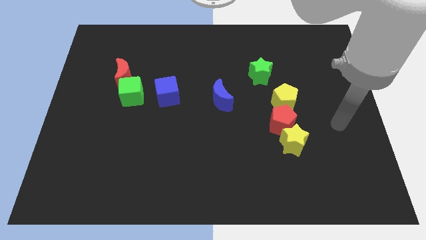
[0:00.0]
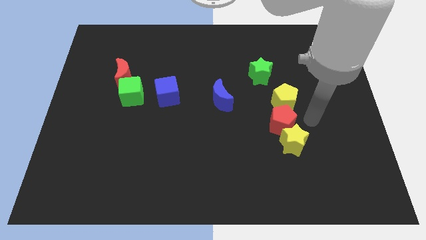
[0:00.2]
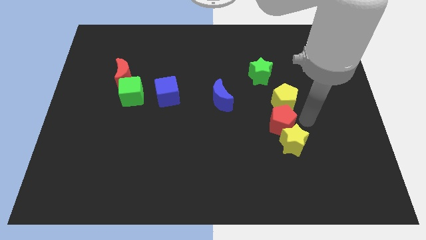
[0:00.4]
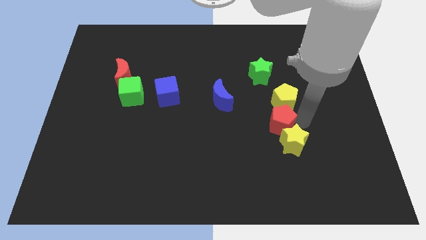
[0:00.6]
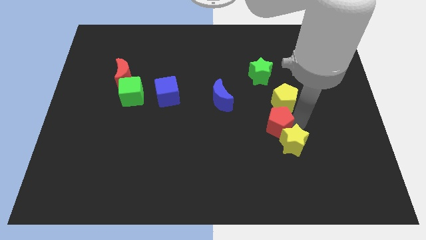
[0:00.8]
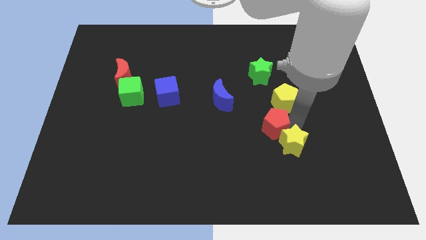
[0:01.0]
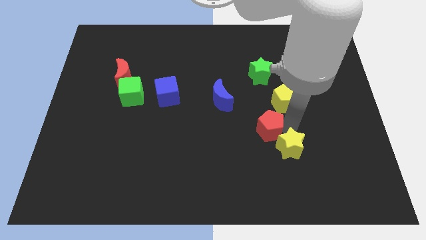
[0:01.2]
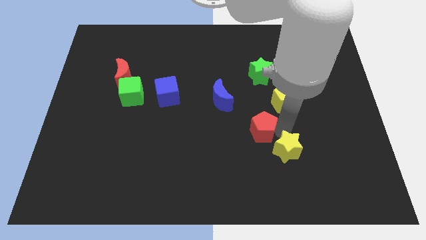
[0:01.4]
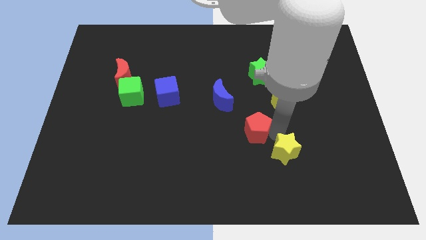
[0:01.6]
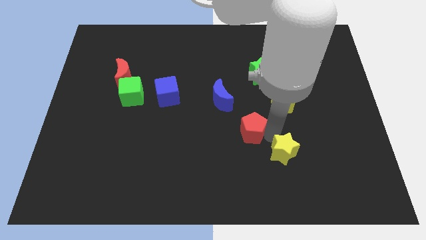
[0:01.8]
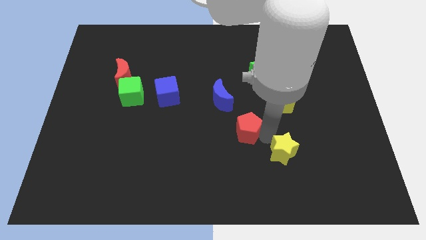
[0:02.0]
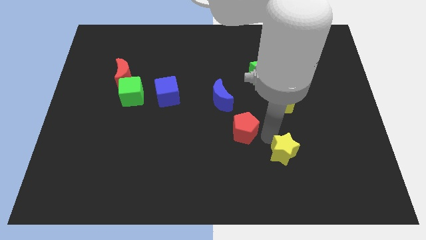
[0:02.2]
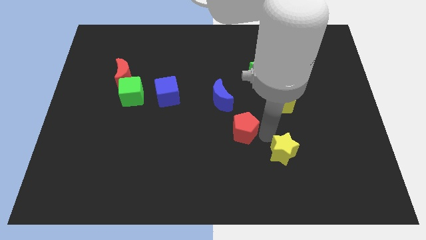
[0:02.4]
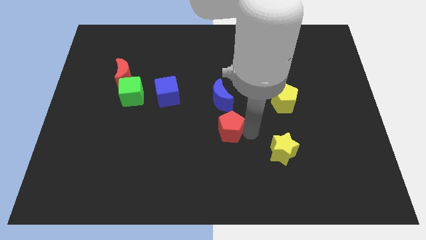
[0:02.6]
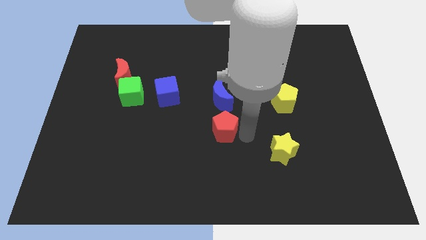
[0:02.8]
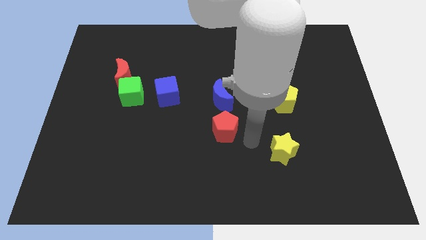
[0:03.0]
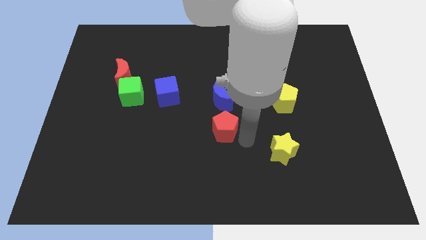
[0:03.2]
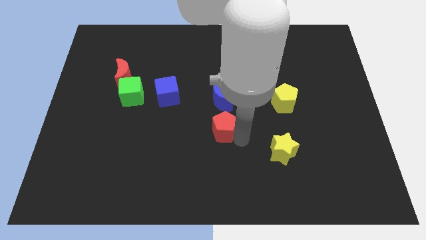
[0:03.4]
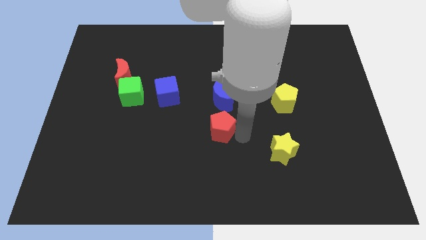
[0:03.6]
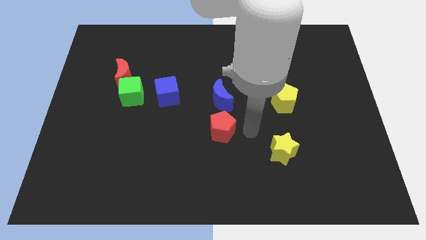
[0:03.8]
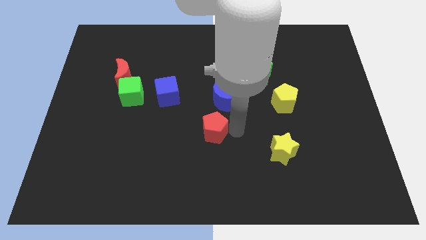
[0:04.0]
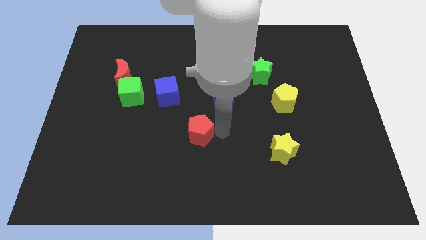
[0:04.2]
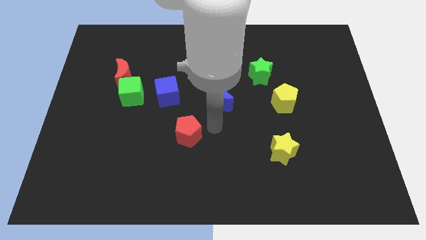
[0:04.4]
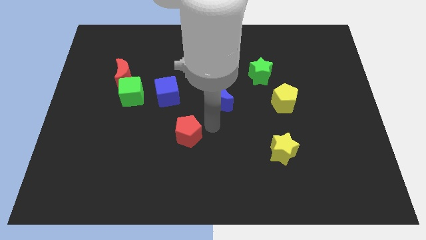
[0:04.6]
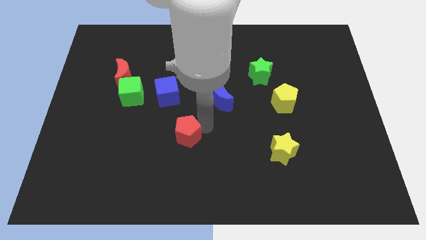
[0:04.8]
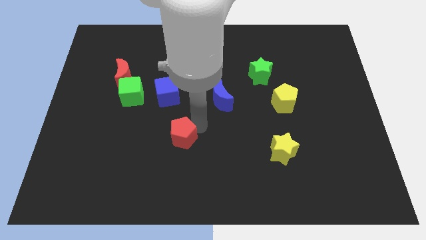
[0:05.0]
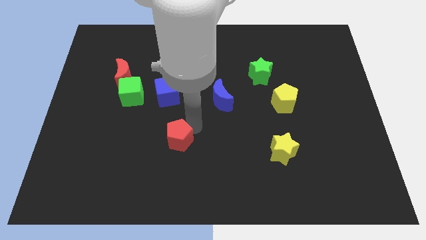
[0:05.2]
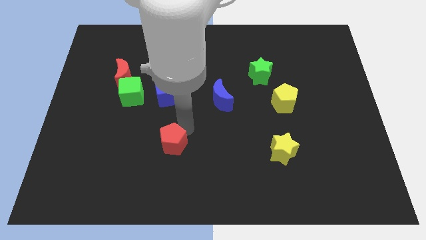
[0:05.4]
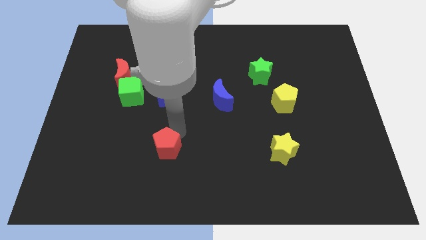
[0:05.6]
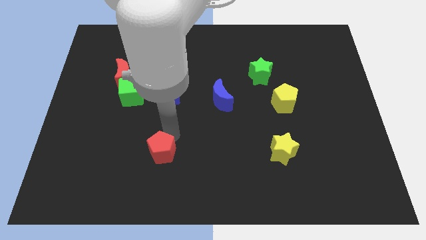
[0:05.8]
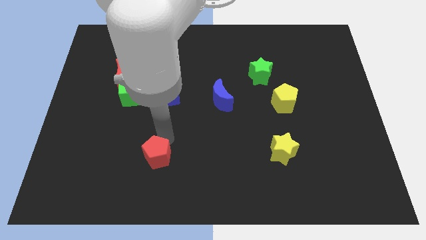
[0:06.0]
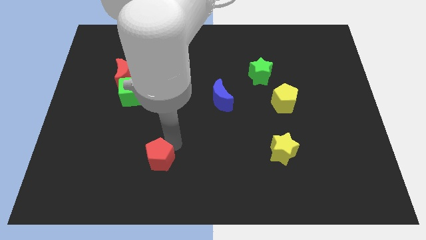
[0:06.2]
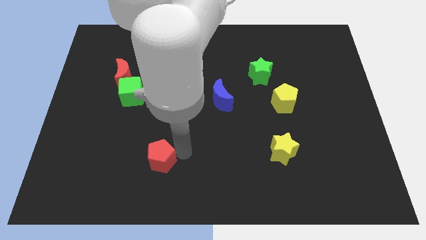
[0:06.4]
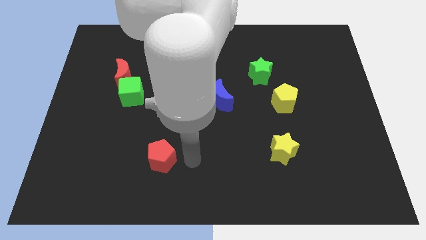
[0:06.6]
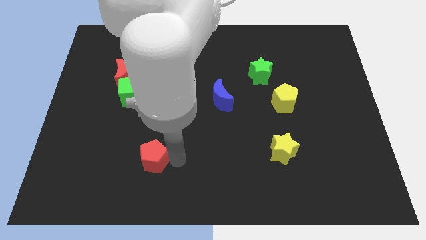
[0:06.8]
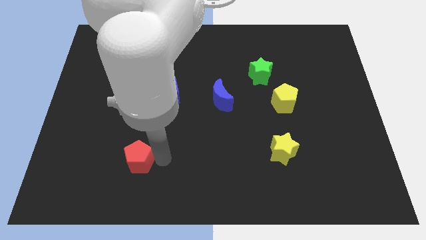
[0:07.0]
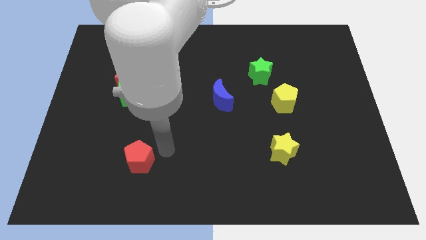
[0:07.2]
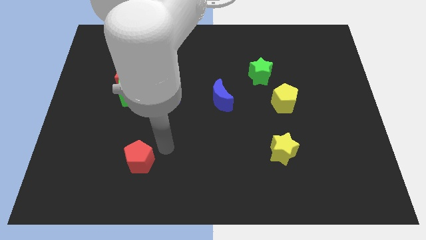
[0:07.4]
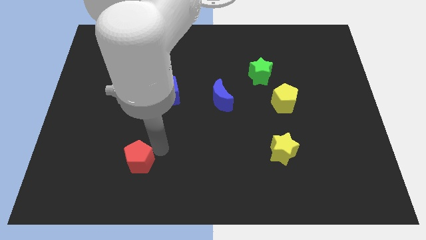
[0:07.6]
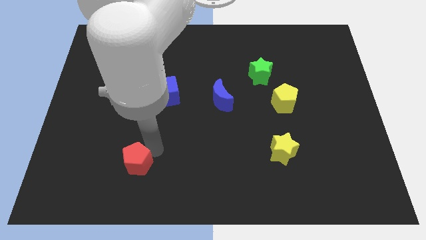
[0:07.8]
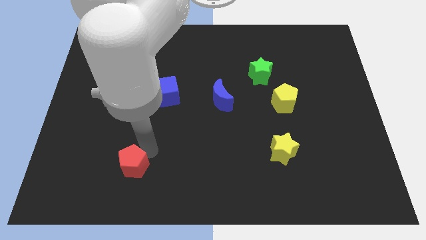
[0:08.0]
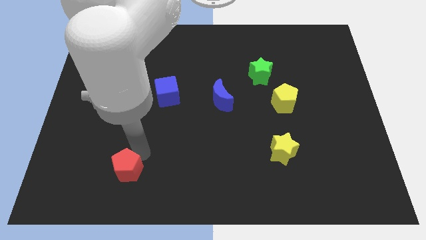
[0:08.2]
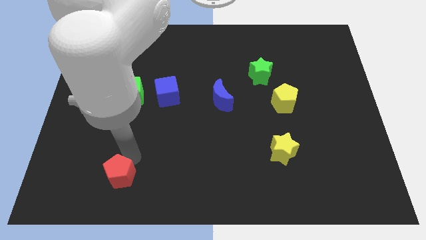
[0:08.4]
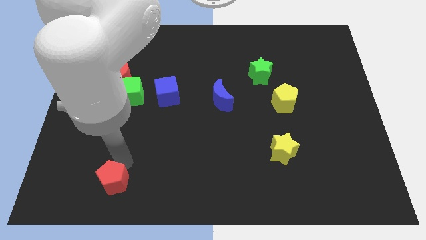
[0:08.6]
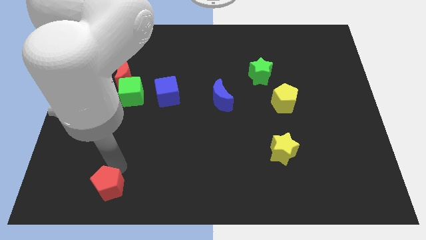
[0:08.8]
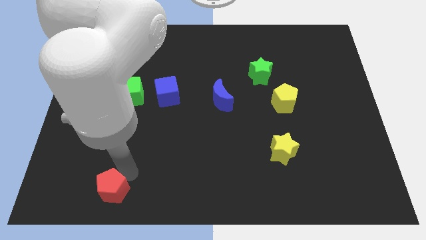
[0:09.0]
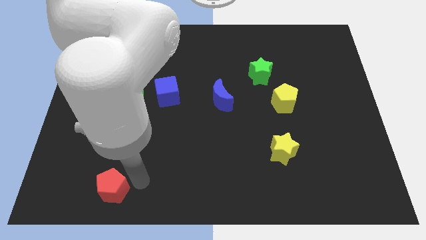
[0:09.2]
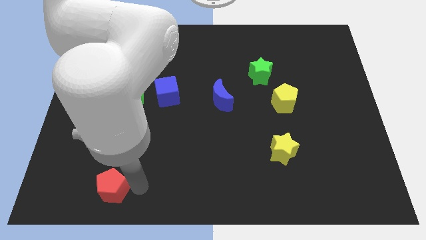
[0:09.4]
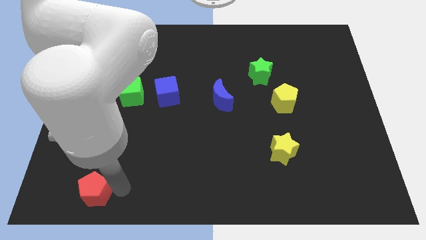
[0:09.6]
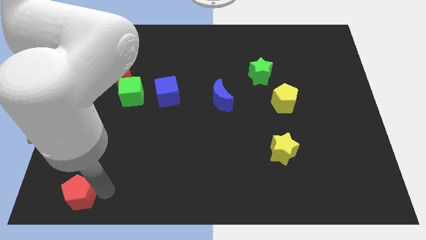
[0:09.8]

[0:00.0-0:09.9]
slide the red pentagon to the bottom left

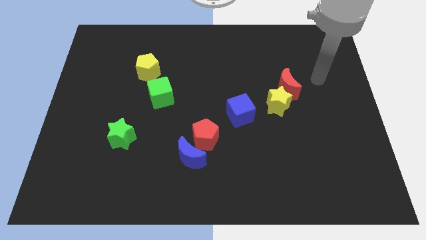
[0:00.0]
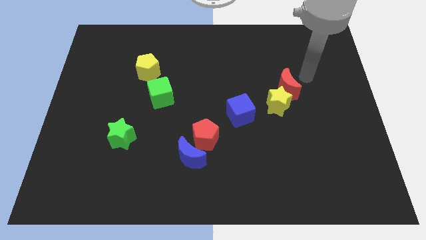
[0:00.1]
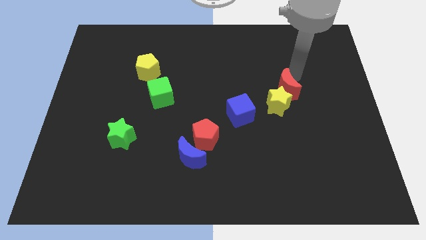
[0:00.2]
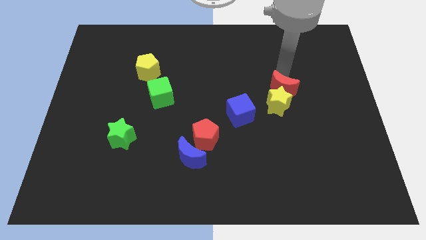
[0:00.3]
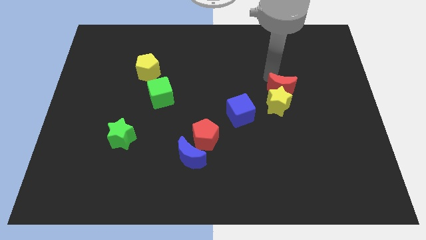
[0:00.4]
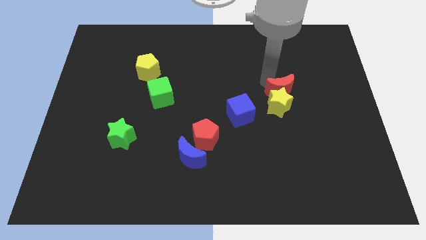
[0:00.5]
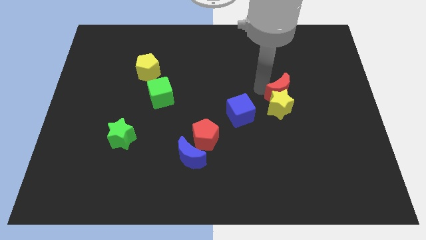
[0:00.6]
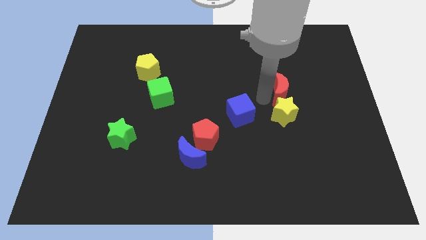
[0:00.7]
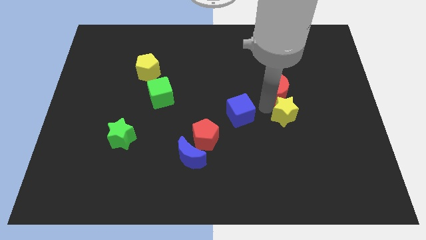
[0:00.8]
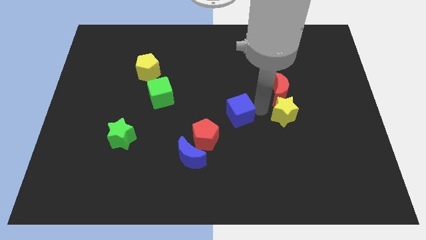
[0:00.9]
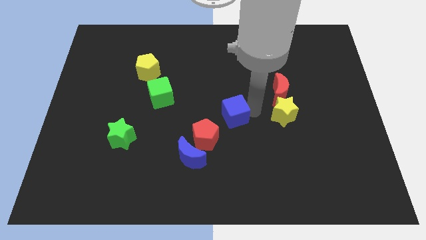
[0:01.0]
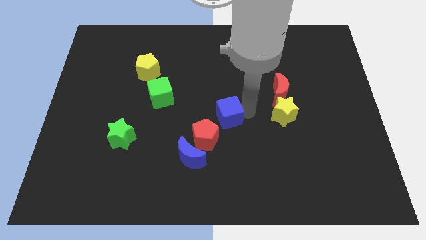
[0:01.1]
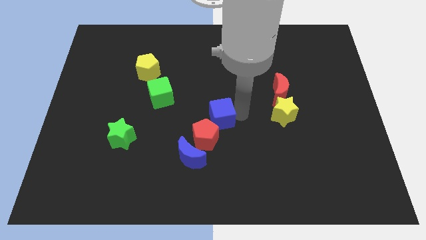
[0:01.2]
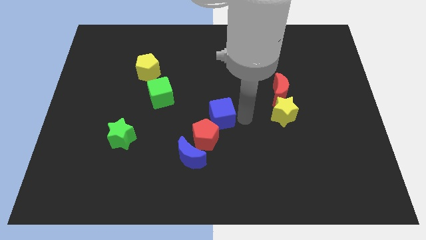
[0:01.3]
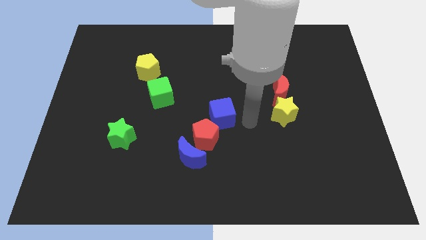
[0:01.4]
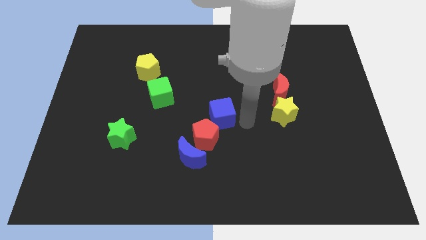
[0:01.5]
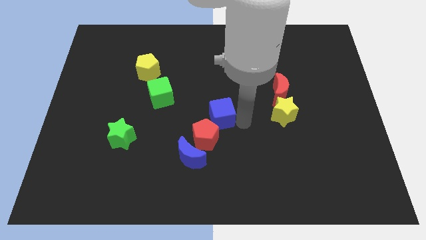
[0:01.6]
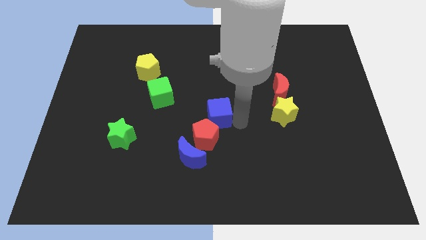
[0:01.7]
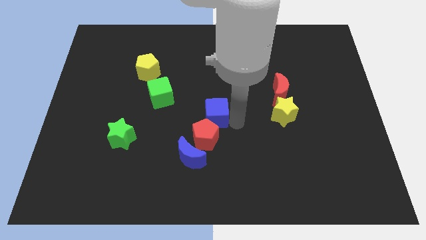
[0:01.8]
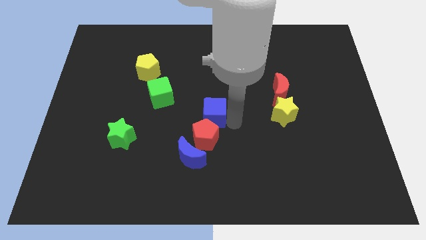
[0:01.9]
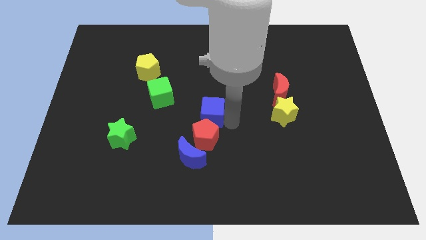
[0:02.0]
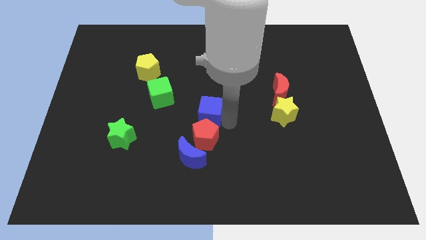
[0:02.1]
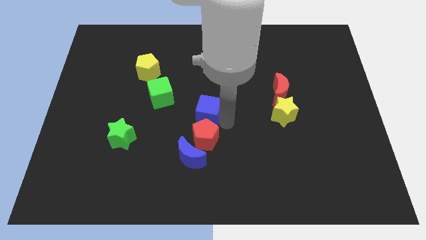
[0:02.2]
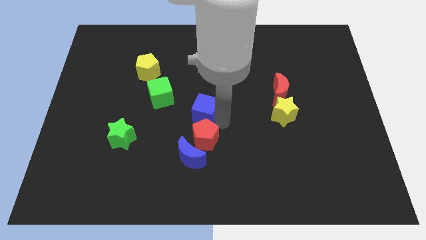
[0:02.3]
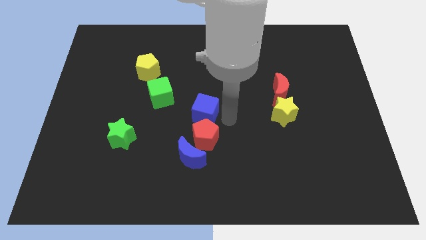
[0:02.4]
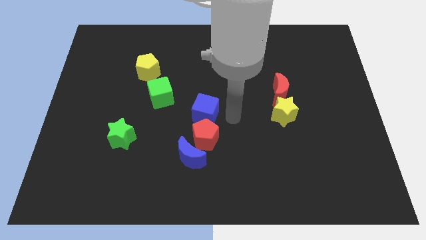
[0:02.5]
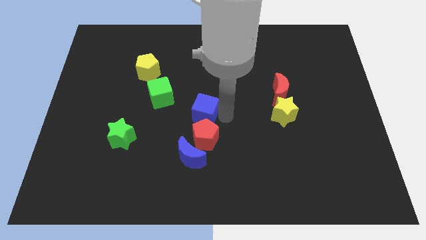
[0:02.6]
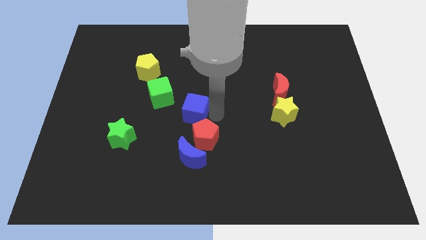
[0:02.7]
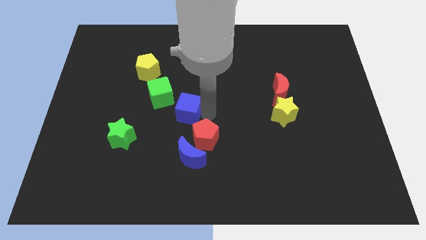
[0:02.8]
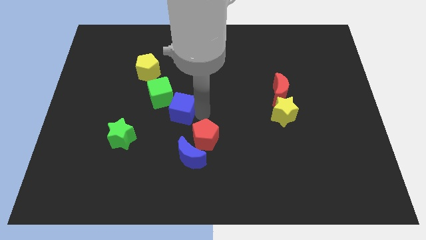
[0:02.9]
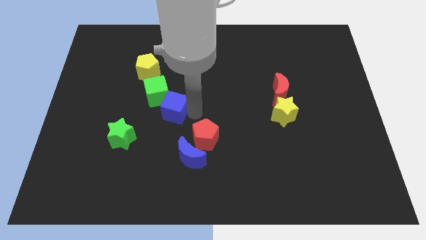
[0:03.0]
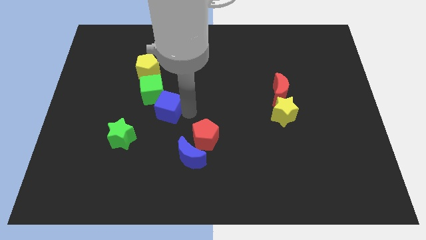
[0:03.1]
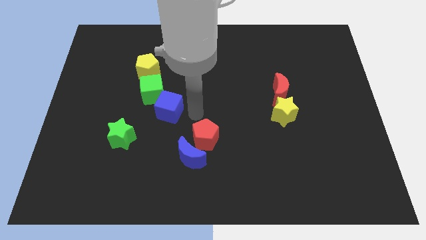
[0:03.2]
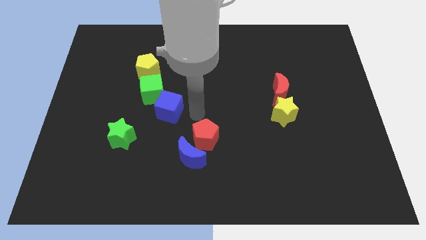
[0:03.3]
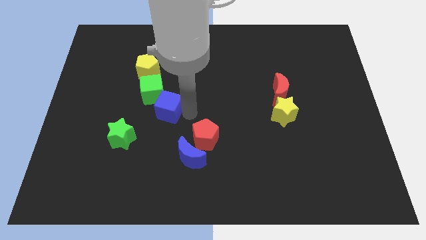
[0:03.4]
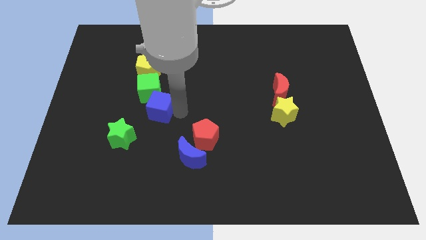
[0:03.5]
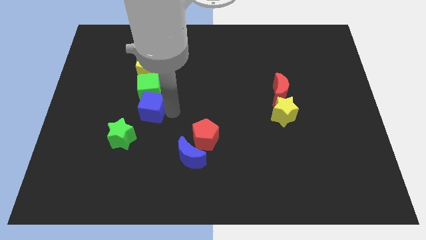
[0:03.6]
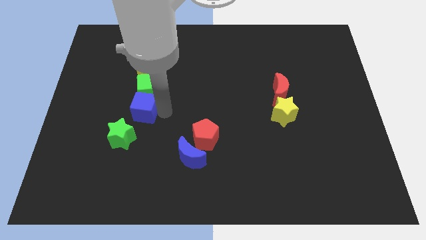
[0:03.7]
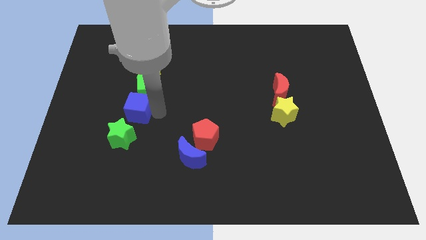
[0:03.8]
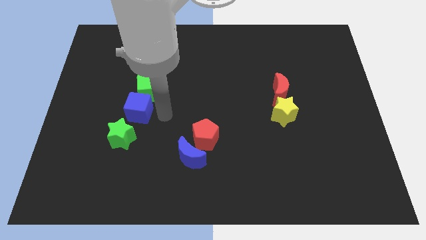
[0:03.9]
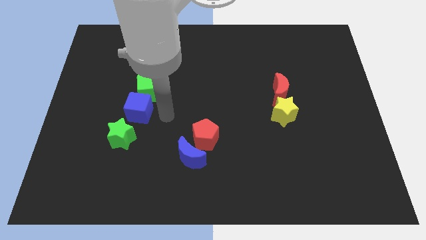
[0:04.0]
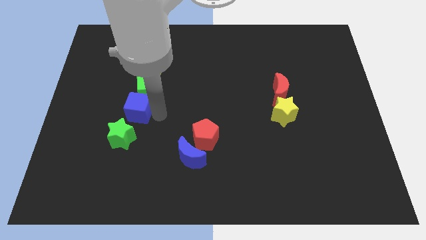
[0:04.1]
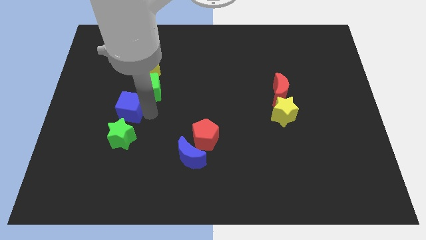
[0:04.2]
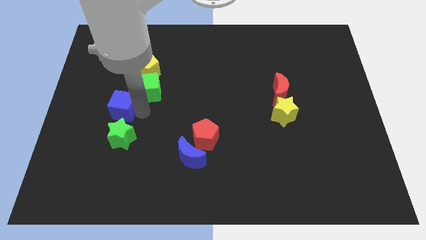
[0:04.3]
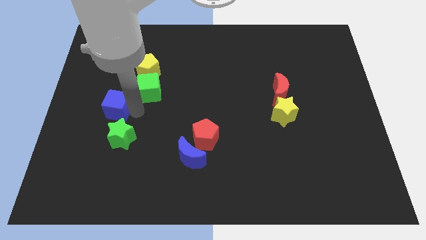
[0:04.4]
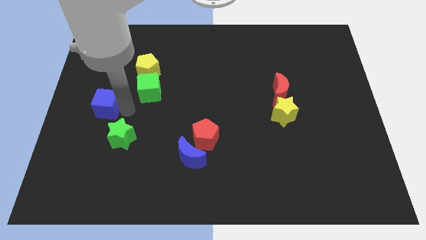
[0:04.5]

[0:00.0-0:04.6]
push the blue cube to the left side
